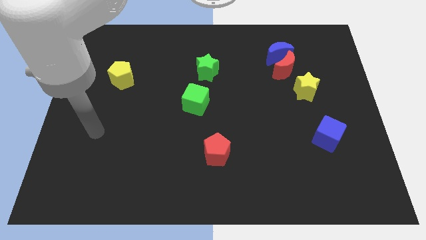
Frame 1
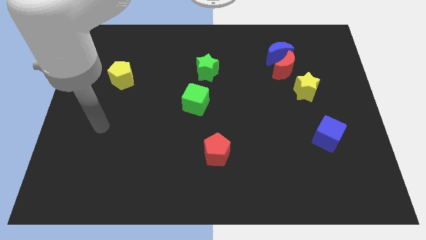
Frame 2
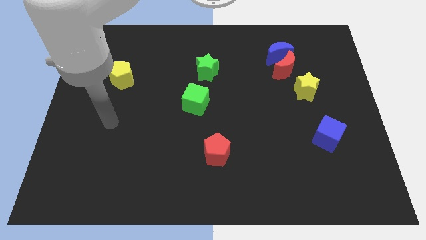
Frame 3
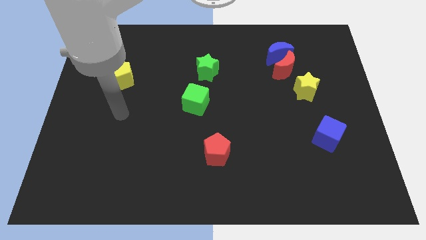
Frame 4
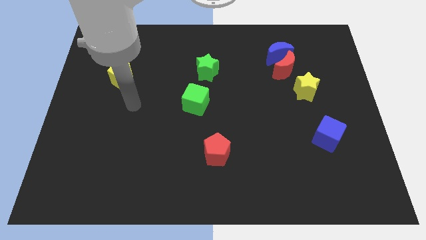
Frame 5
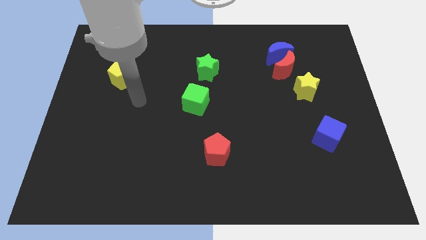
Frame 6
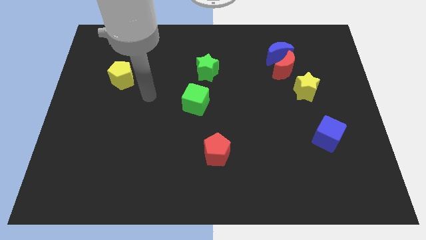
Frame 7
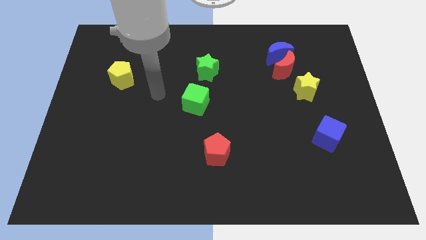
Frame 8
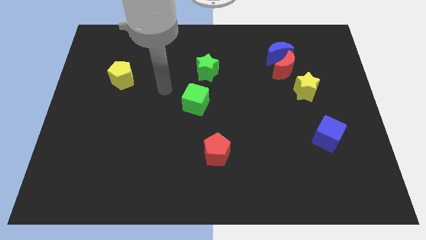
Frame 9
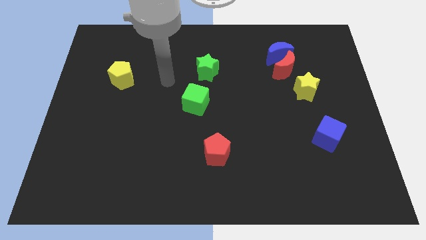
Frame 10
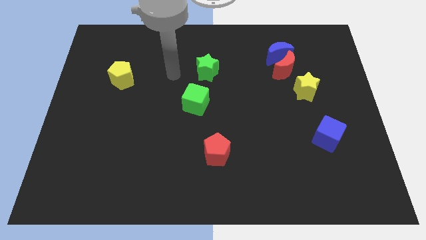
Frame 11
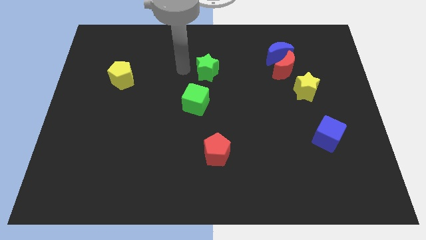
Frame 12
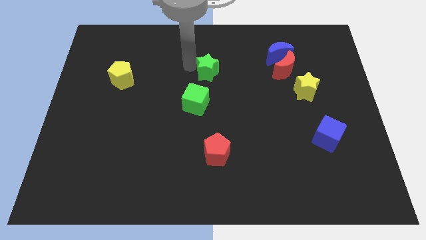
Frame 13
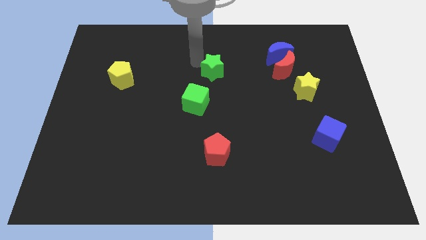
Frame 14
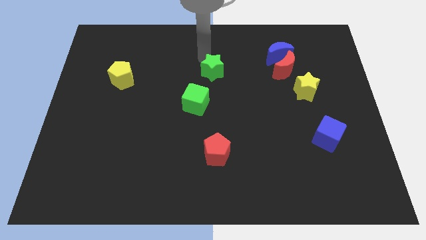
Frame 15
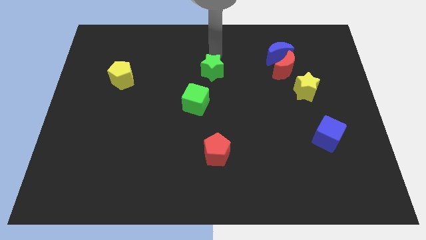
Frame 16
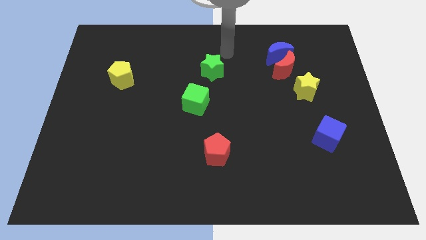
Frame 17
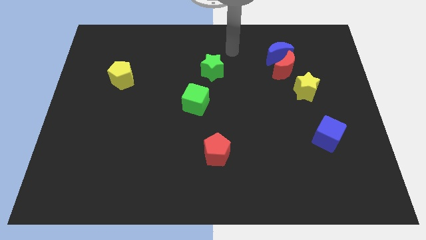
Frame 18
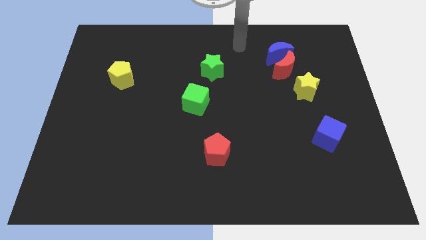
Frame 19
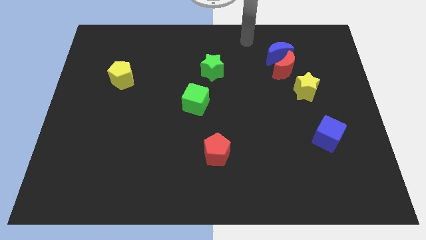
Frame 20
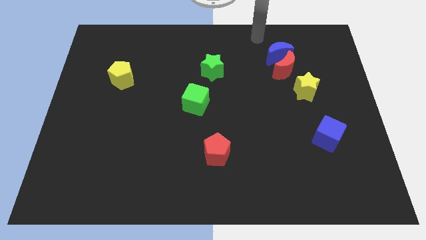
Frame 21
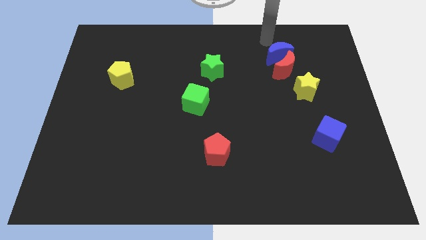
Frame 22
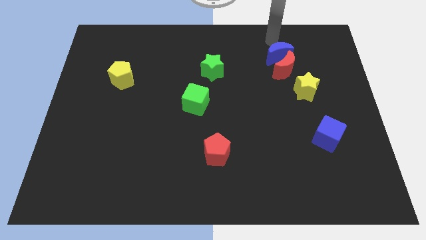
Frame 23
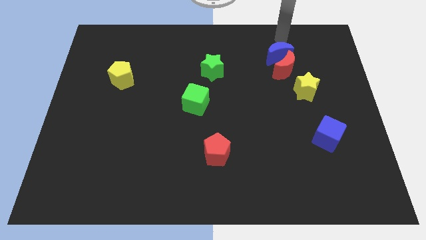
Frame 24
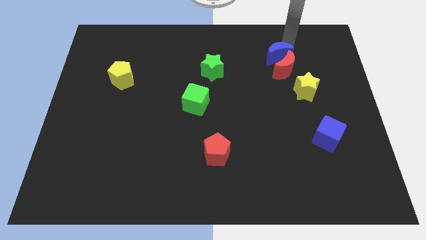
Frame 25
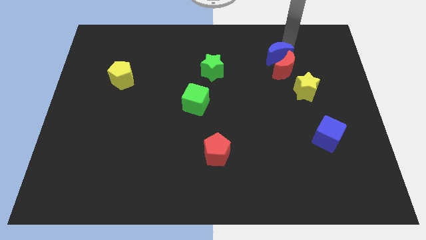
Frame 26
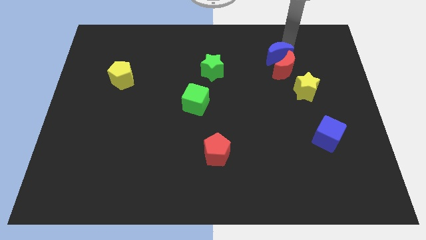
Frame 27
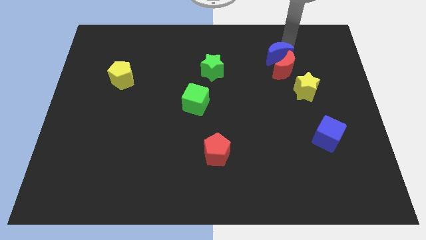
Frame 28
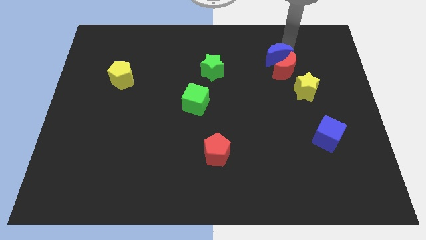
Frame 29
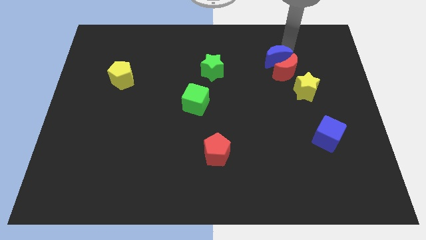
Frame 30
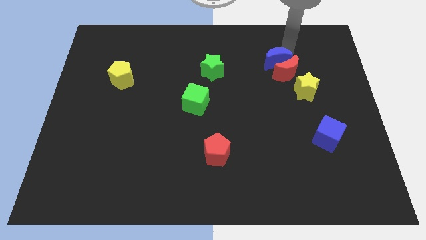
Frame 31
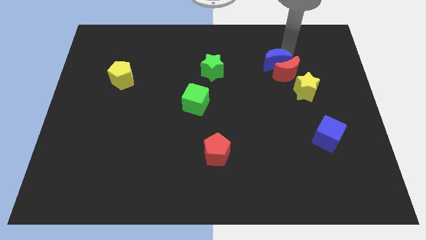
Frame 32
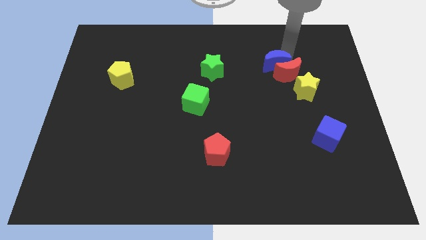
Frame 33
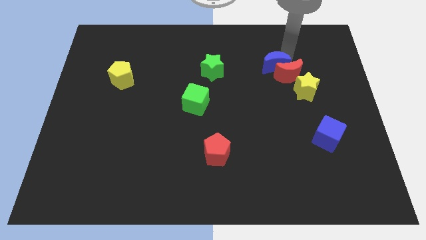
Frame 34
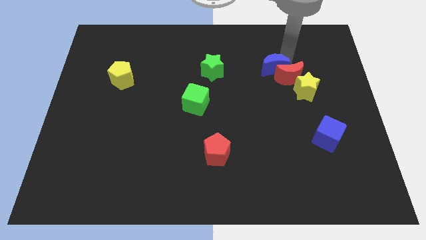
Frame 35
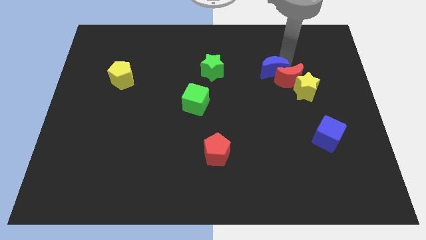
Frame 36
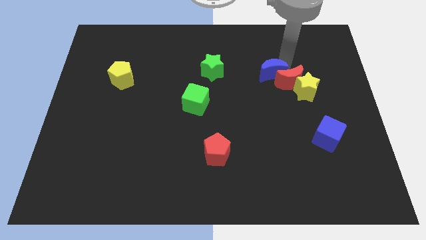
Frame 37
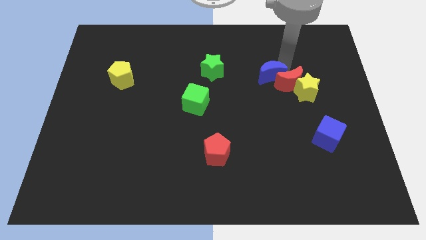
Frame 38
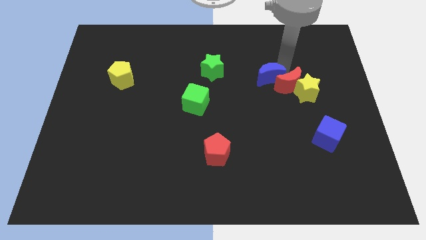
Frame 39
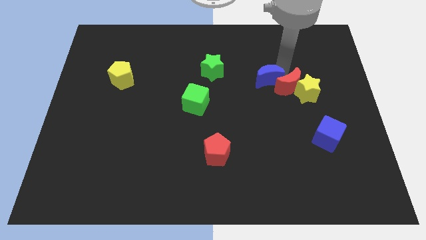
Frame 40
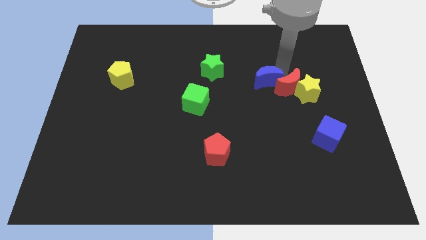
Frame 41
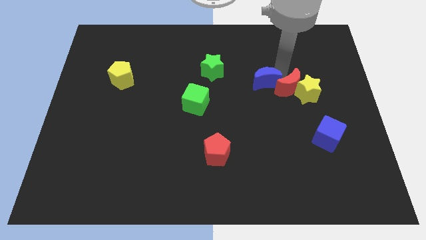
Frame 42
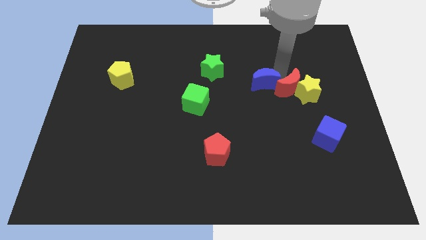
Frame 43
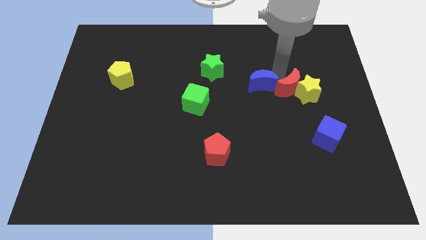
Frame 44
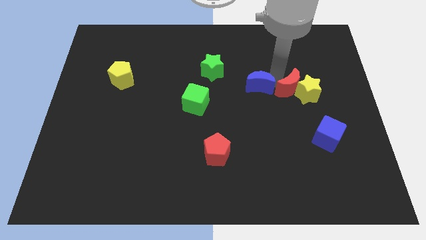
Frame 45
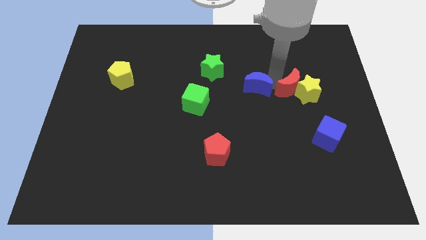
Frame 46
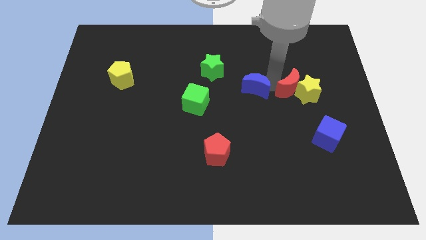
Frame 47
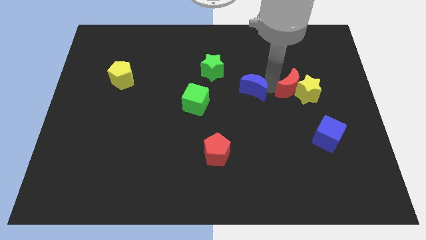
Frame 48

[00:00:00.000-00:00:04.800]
push the blue moon just right of the green cube

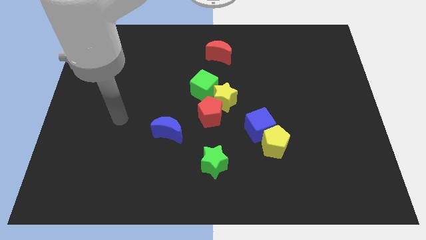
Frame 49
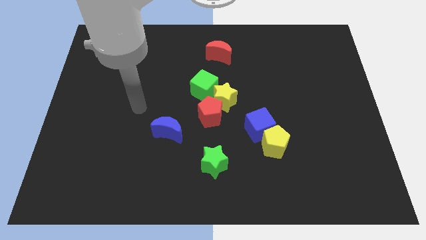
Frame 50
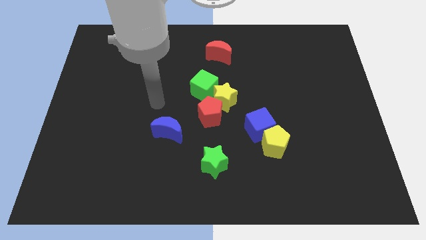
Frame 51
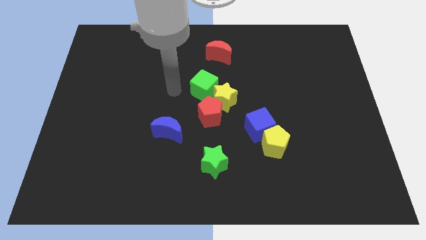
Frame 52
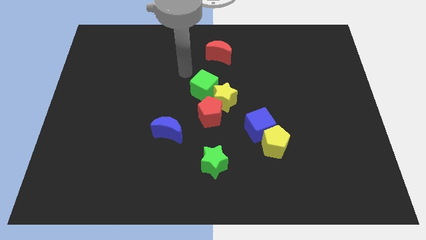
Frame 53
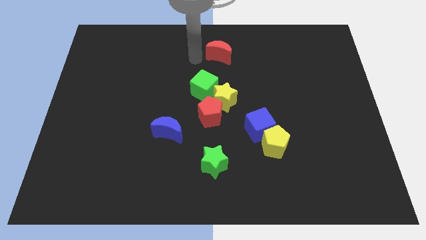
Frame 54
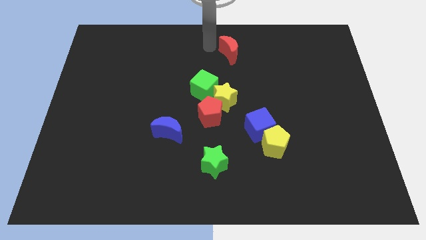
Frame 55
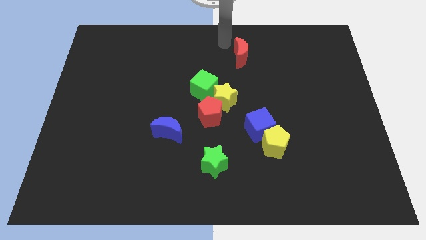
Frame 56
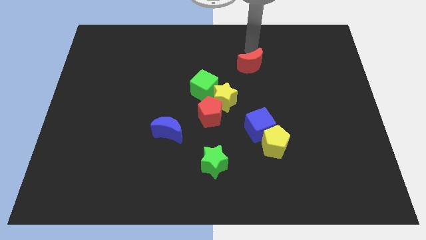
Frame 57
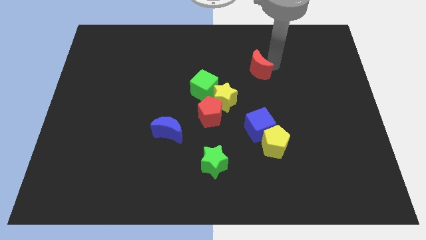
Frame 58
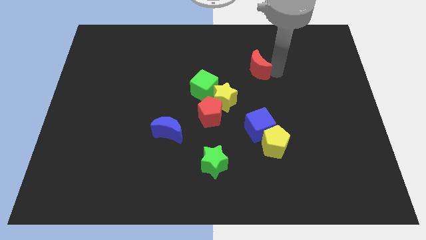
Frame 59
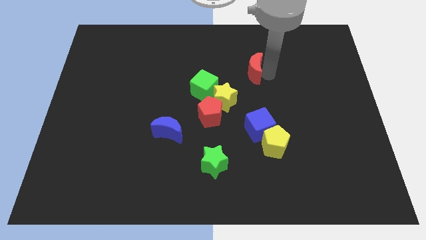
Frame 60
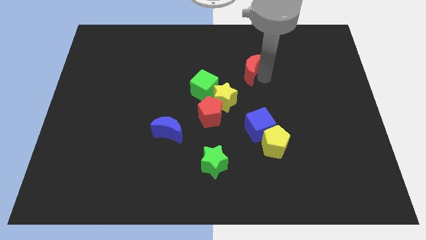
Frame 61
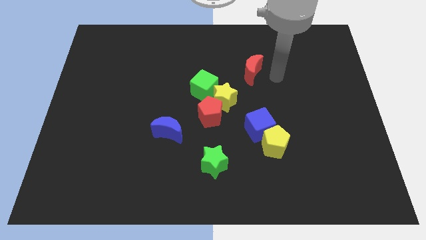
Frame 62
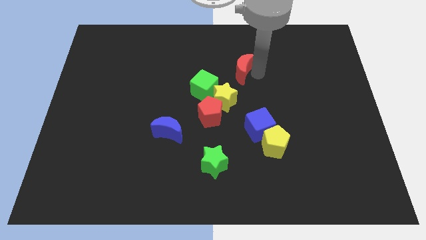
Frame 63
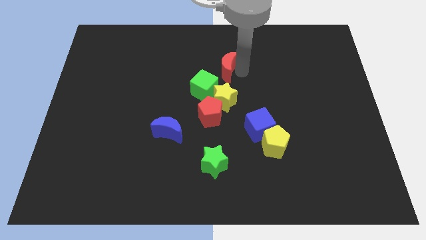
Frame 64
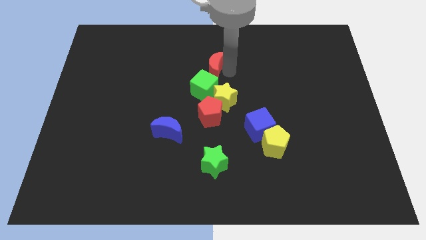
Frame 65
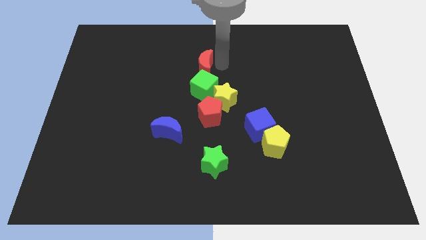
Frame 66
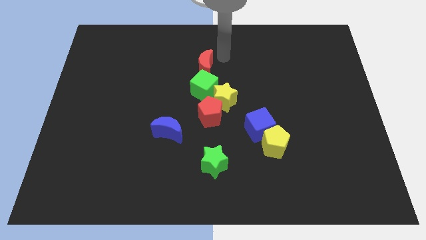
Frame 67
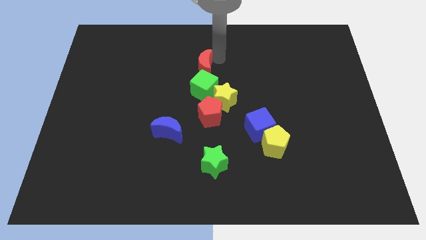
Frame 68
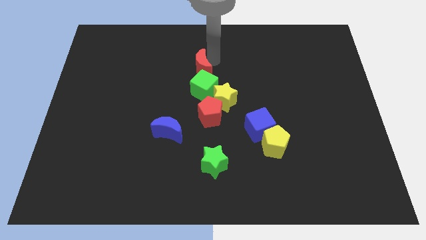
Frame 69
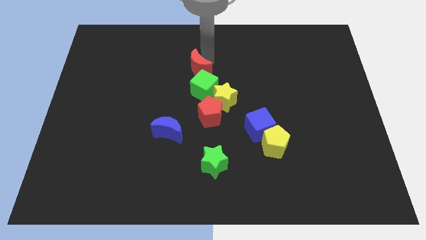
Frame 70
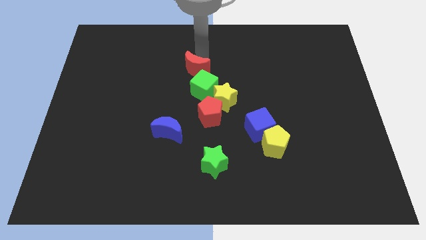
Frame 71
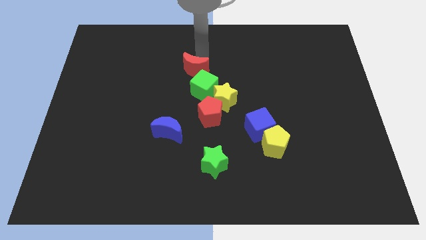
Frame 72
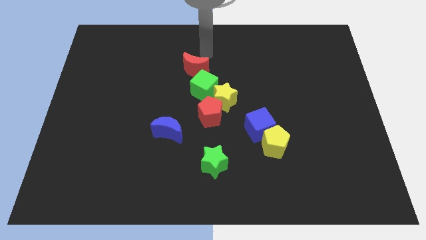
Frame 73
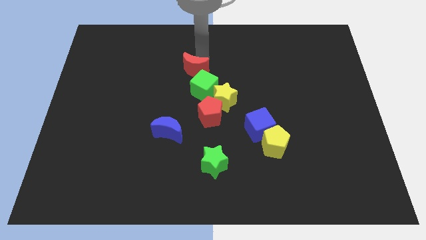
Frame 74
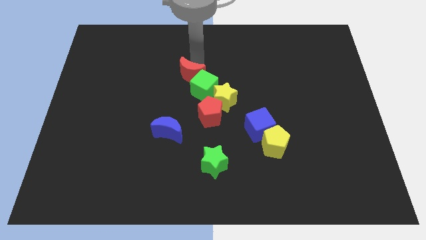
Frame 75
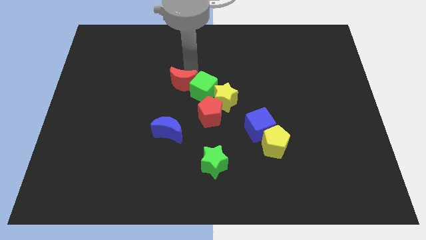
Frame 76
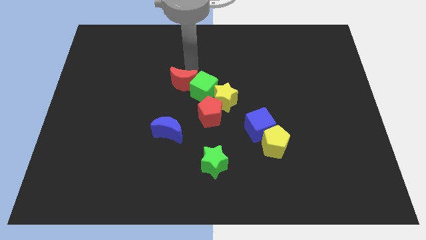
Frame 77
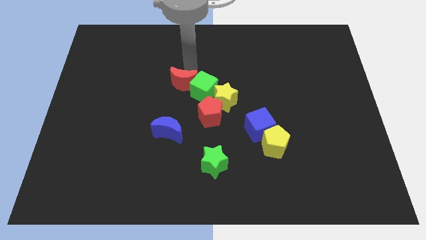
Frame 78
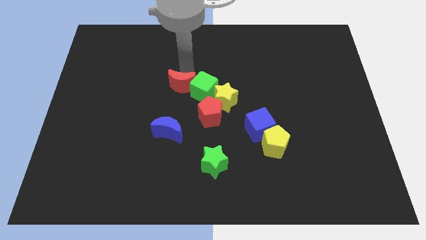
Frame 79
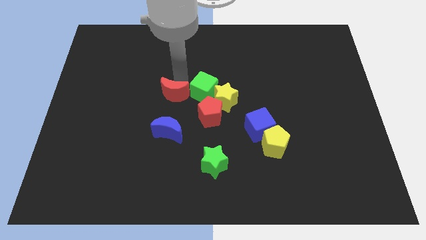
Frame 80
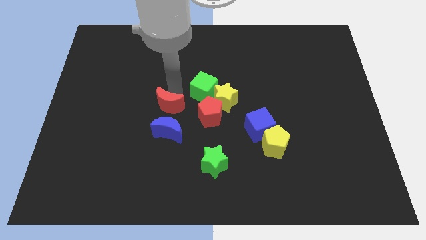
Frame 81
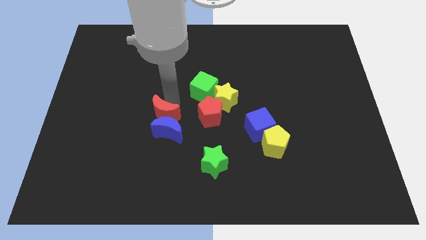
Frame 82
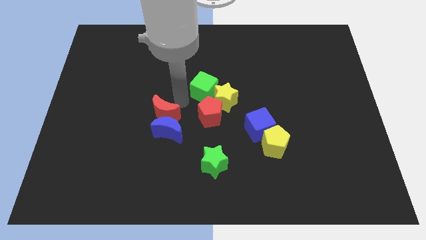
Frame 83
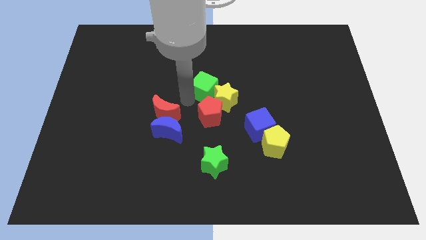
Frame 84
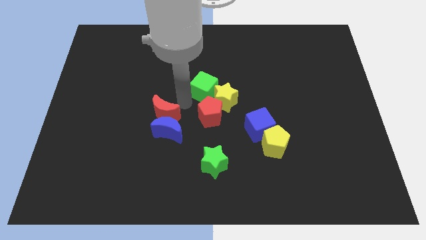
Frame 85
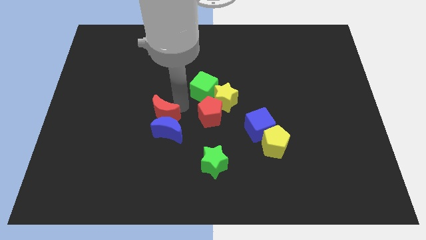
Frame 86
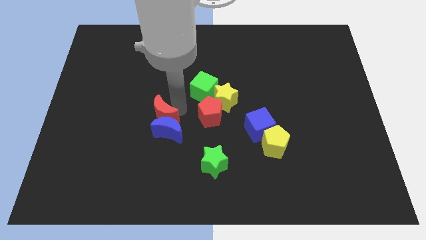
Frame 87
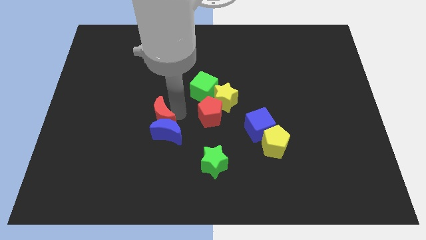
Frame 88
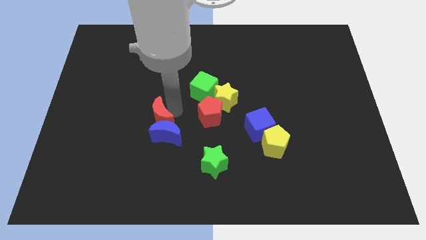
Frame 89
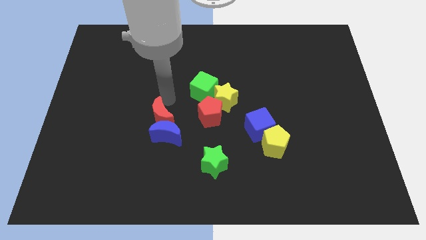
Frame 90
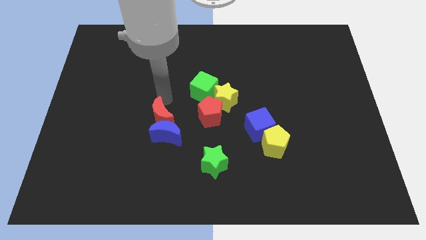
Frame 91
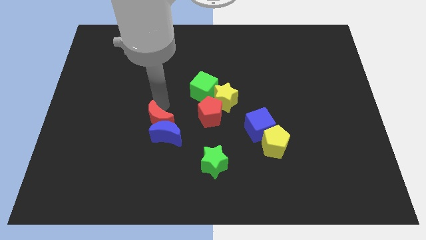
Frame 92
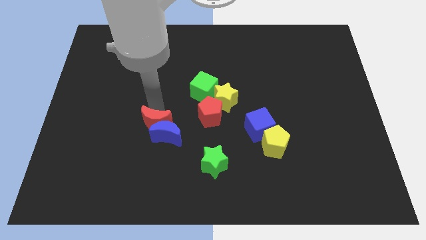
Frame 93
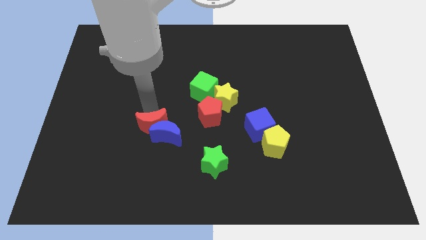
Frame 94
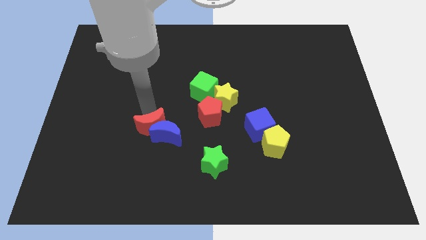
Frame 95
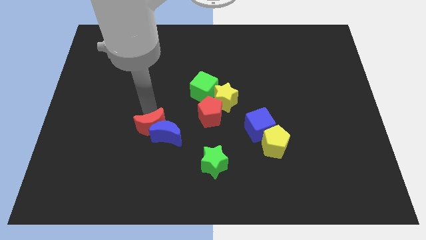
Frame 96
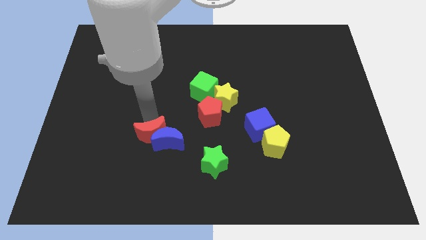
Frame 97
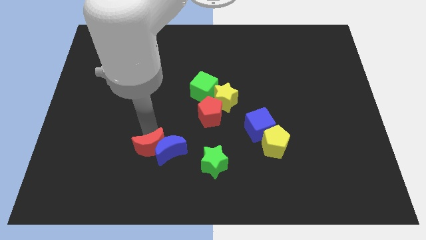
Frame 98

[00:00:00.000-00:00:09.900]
put the red moon to the left side of the green star
